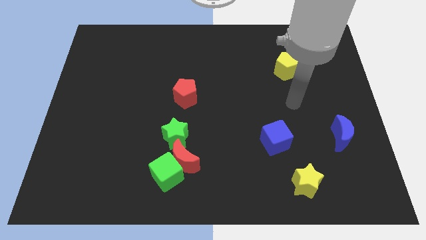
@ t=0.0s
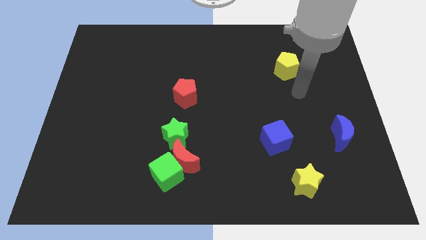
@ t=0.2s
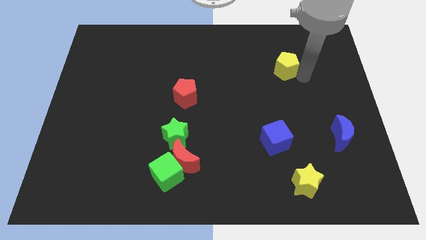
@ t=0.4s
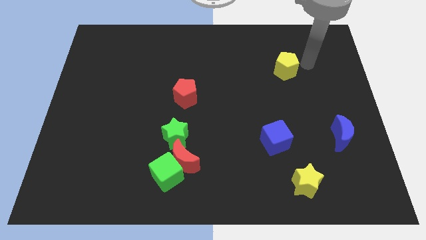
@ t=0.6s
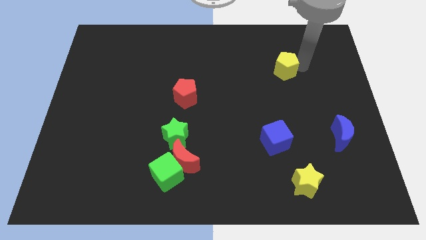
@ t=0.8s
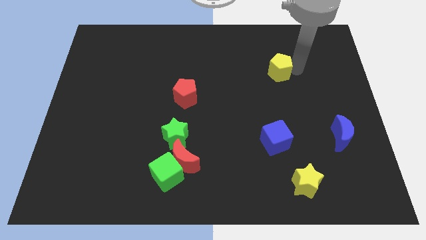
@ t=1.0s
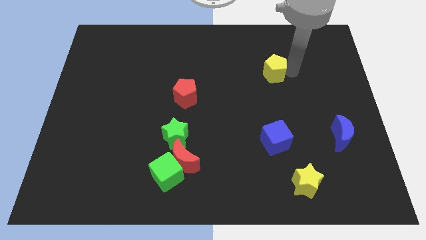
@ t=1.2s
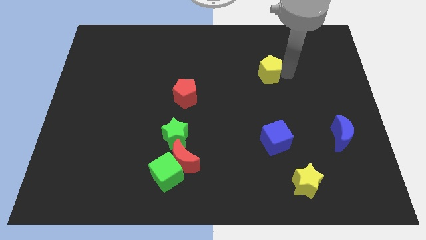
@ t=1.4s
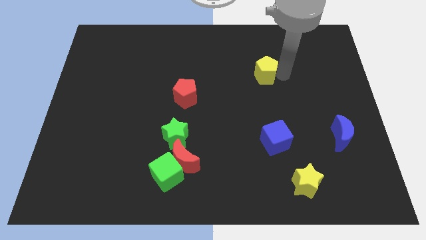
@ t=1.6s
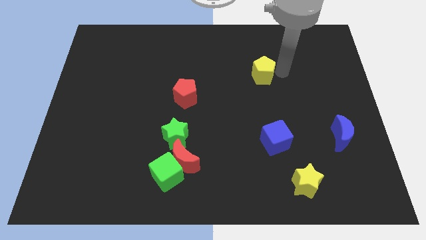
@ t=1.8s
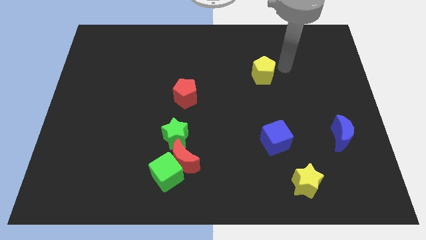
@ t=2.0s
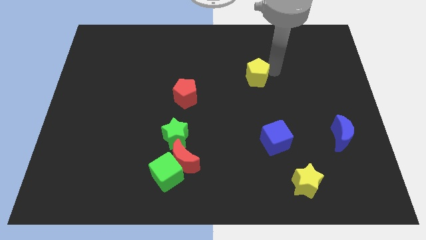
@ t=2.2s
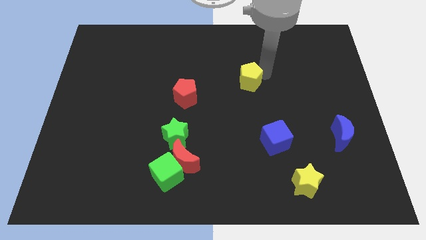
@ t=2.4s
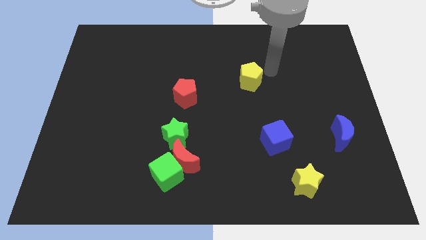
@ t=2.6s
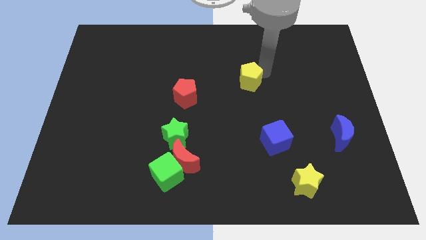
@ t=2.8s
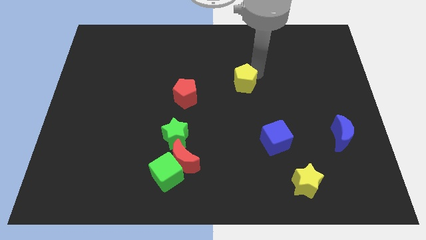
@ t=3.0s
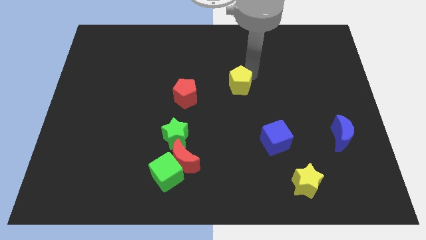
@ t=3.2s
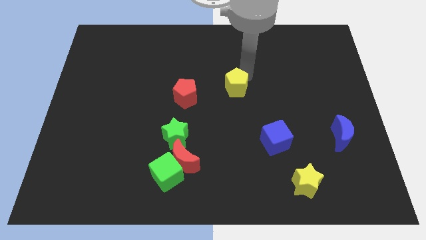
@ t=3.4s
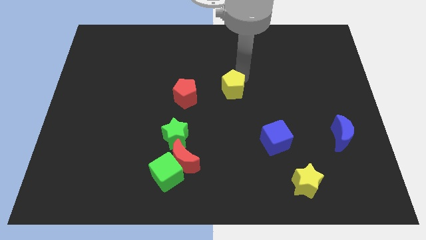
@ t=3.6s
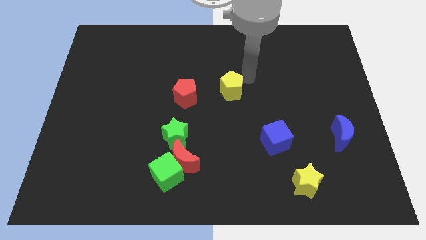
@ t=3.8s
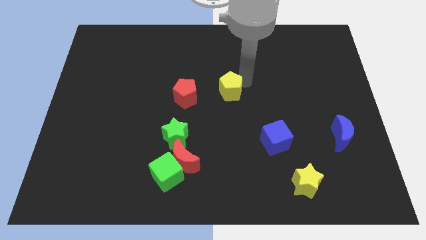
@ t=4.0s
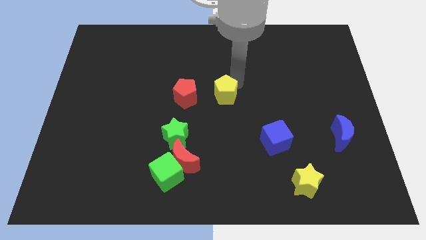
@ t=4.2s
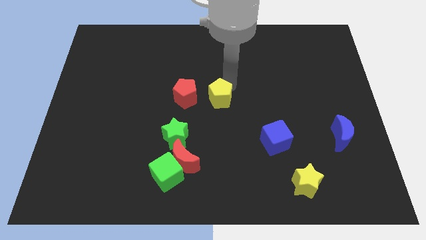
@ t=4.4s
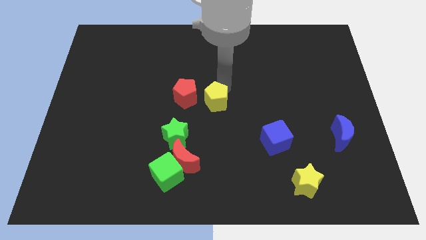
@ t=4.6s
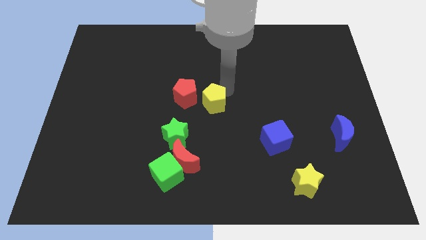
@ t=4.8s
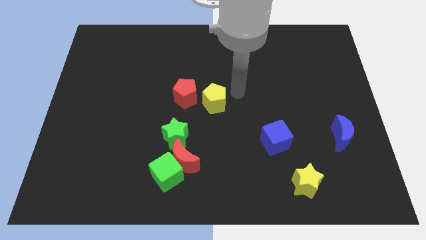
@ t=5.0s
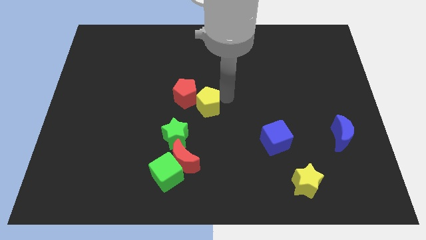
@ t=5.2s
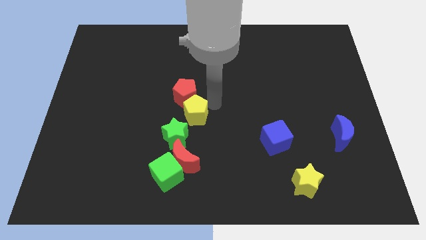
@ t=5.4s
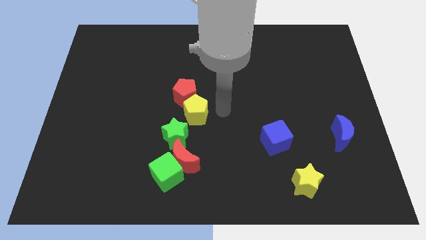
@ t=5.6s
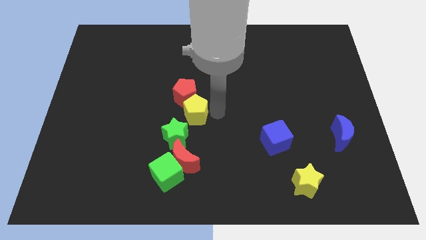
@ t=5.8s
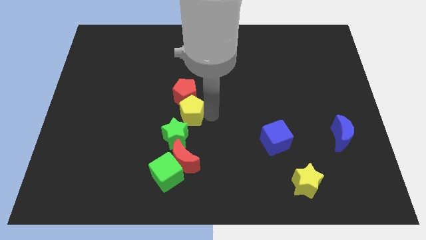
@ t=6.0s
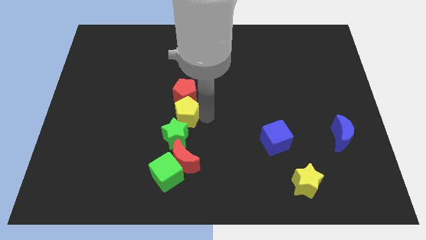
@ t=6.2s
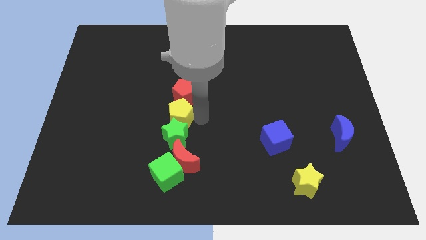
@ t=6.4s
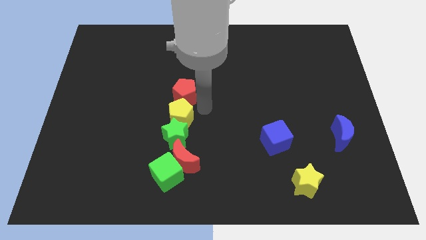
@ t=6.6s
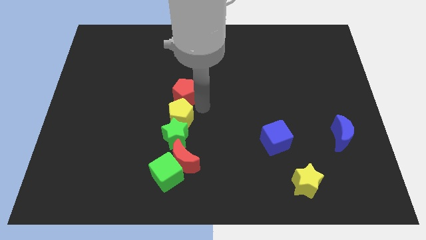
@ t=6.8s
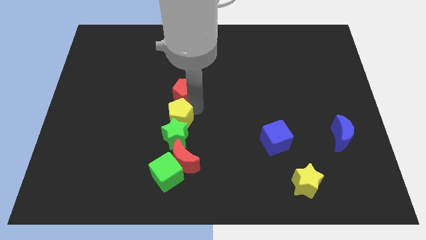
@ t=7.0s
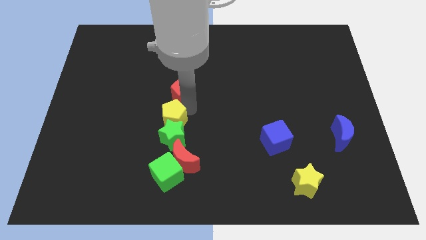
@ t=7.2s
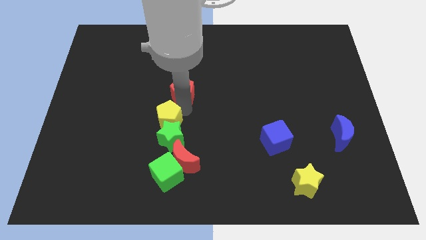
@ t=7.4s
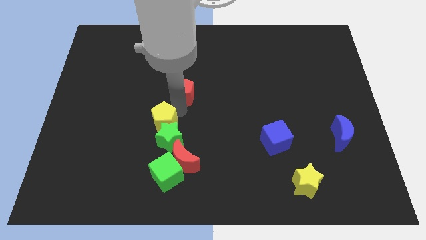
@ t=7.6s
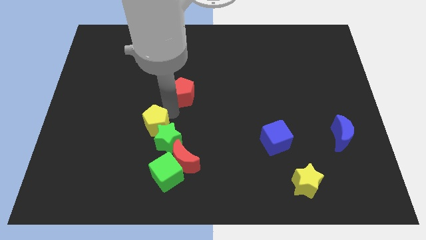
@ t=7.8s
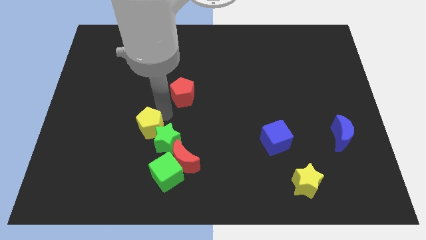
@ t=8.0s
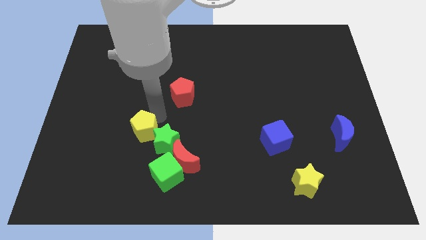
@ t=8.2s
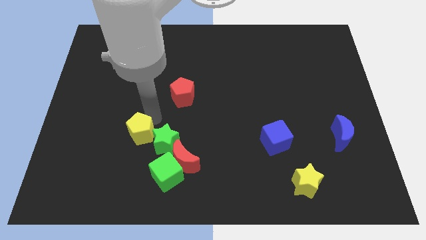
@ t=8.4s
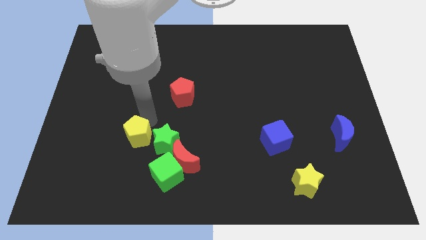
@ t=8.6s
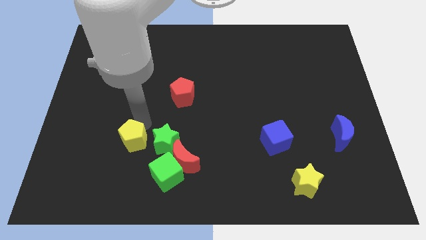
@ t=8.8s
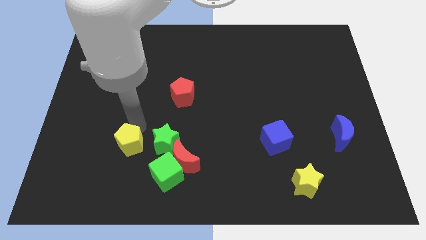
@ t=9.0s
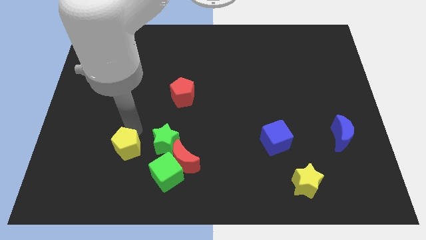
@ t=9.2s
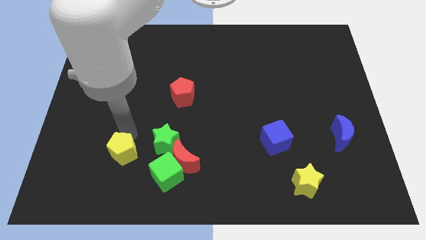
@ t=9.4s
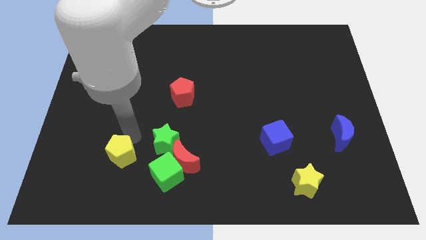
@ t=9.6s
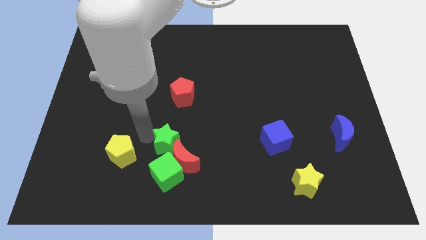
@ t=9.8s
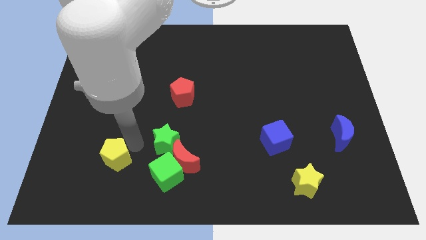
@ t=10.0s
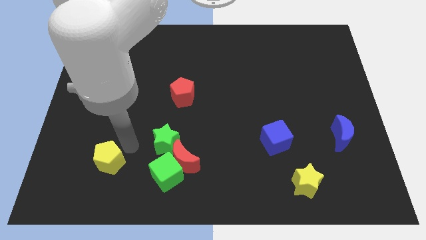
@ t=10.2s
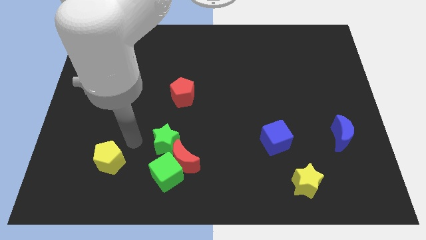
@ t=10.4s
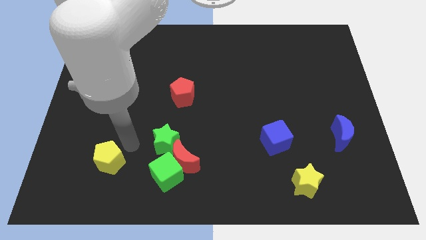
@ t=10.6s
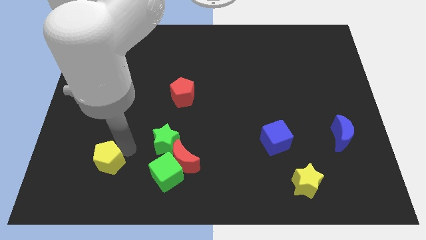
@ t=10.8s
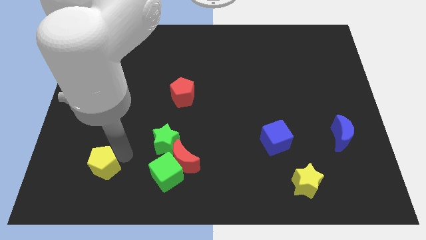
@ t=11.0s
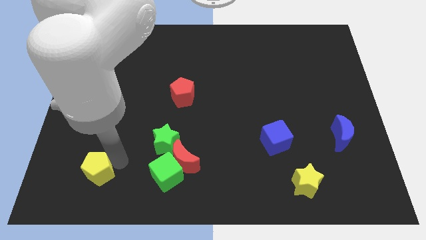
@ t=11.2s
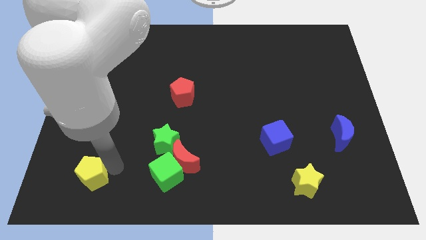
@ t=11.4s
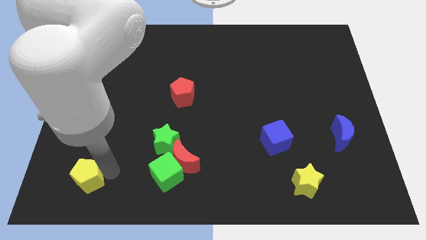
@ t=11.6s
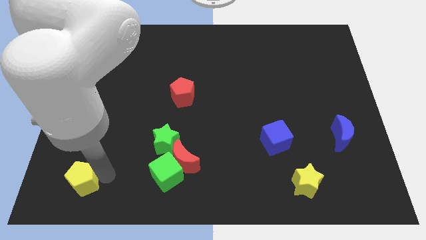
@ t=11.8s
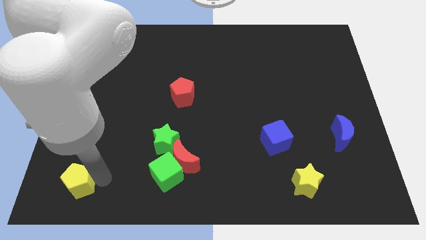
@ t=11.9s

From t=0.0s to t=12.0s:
put the yellow pentagon to the lower left corner
